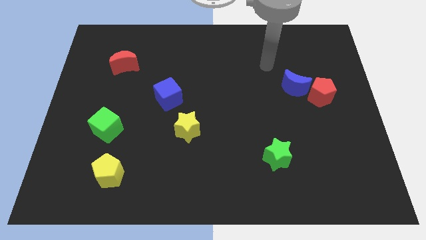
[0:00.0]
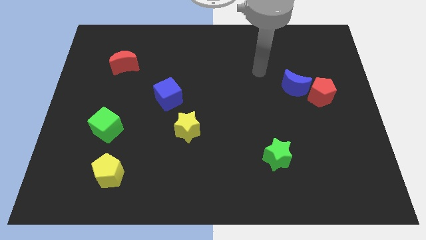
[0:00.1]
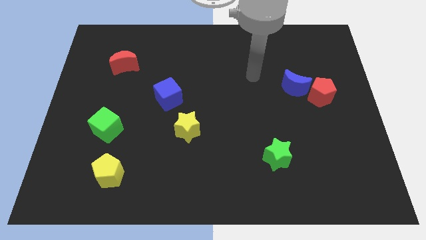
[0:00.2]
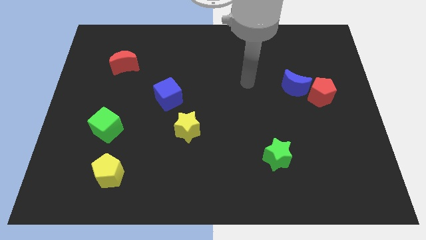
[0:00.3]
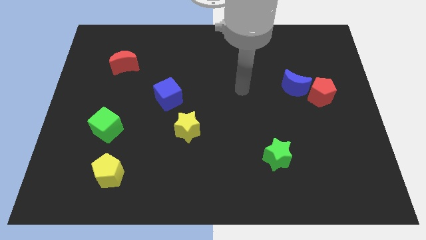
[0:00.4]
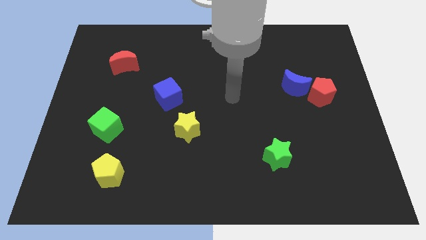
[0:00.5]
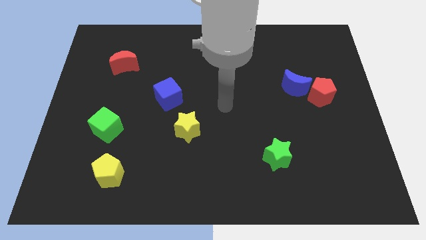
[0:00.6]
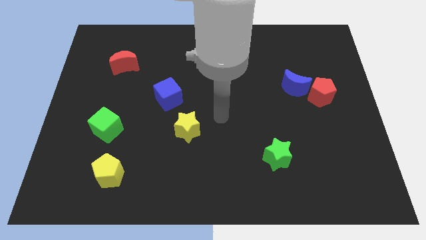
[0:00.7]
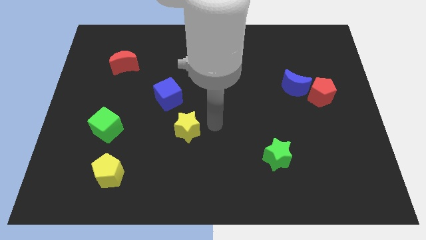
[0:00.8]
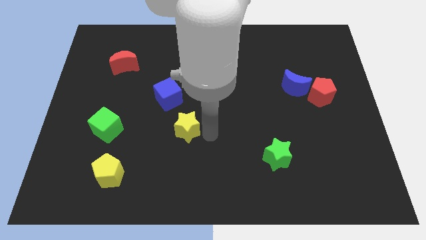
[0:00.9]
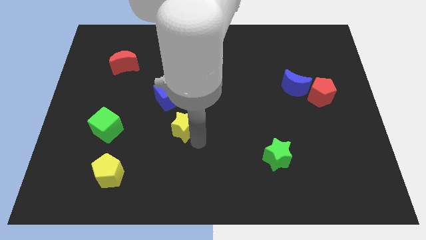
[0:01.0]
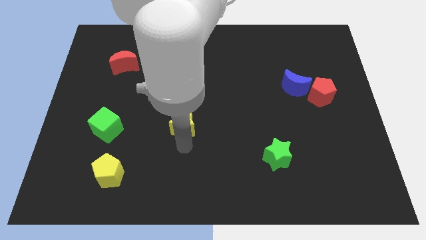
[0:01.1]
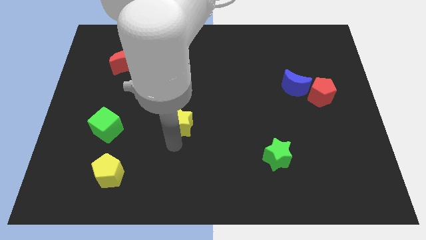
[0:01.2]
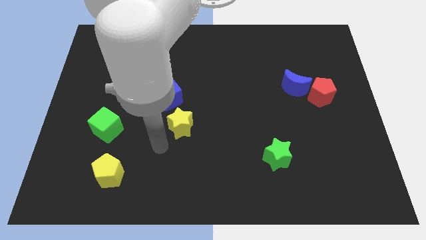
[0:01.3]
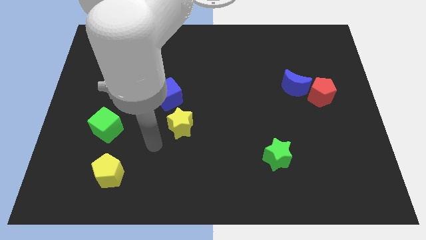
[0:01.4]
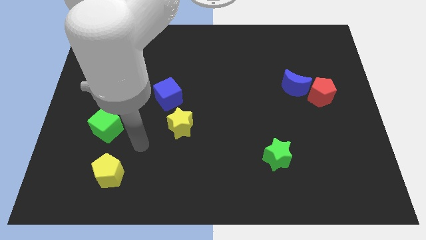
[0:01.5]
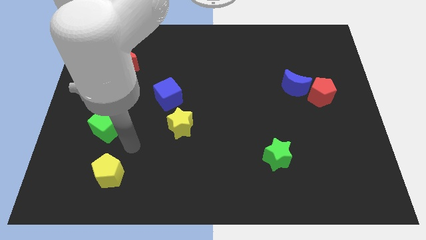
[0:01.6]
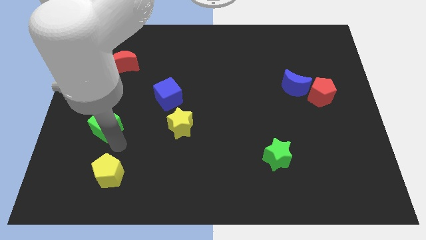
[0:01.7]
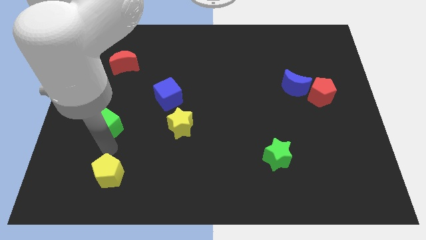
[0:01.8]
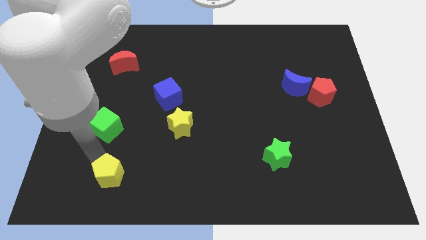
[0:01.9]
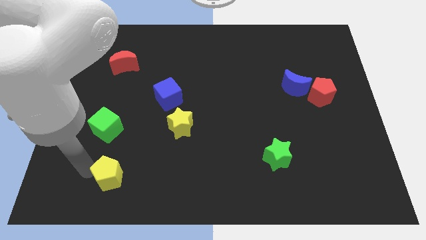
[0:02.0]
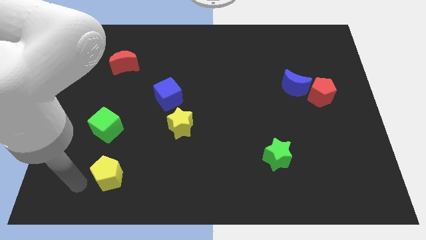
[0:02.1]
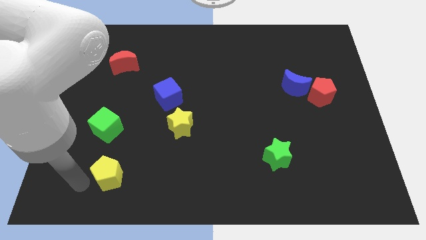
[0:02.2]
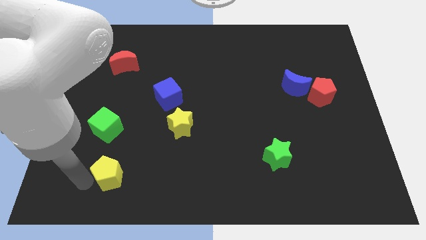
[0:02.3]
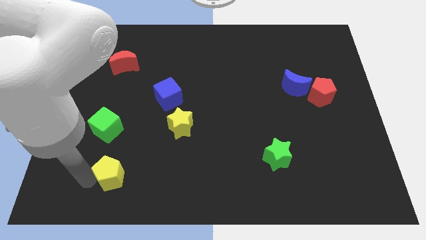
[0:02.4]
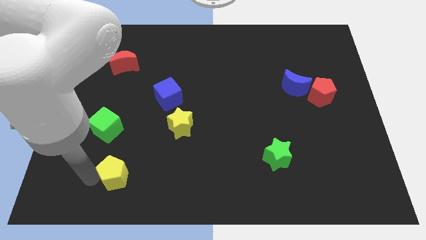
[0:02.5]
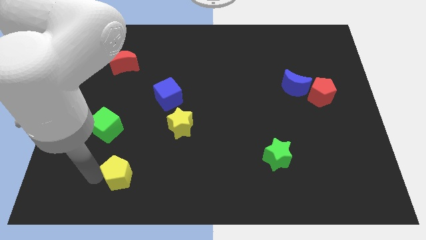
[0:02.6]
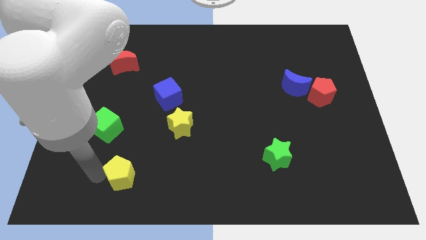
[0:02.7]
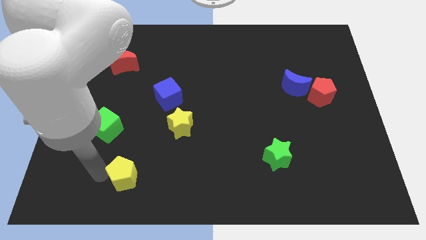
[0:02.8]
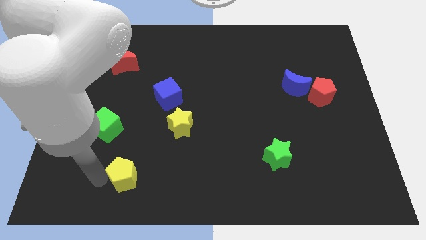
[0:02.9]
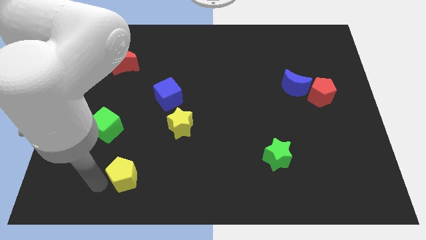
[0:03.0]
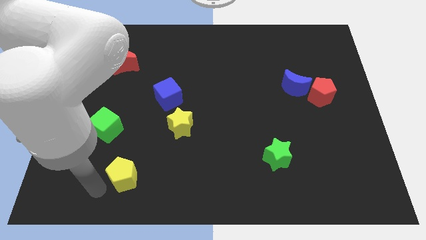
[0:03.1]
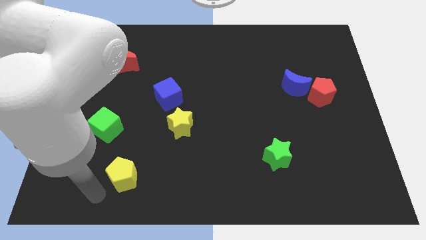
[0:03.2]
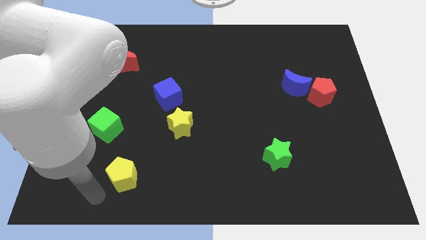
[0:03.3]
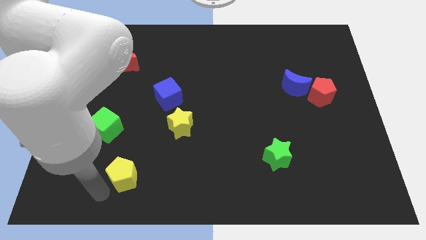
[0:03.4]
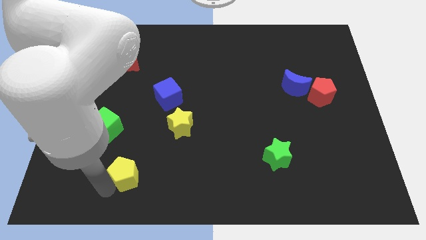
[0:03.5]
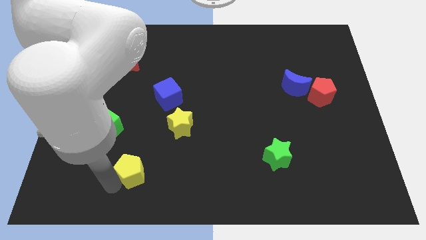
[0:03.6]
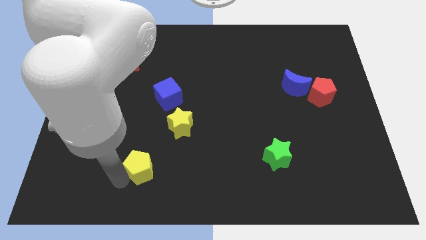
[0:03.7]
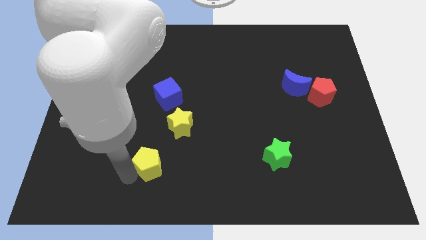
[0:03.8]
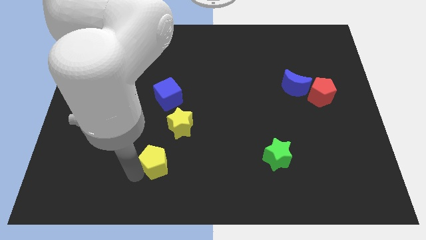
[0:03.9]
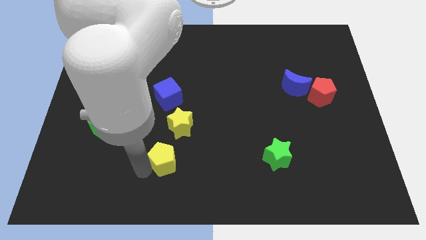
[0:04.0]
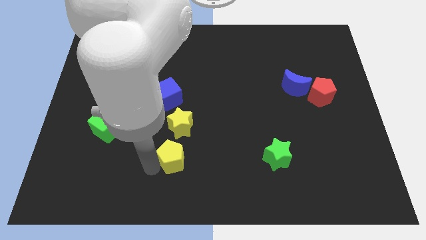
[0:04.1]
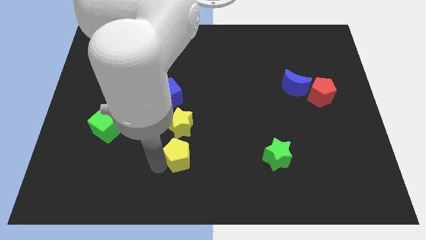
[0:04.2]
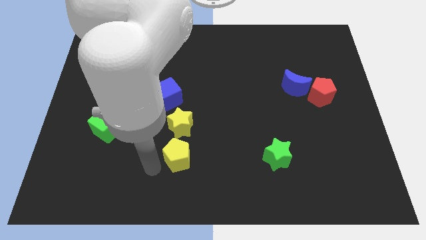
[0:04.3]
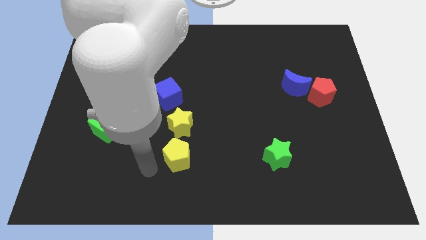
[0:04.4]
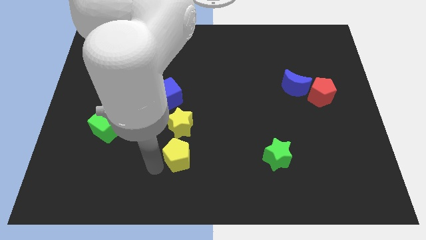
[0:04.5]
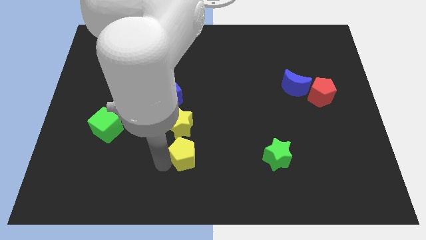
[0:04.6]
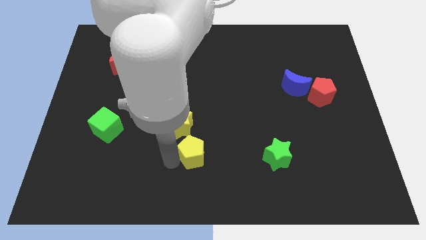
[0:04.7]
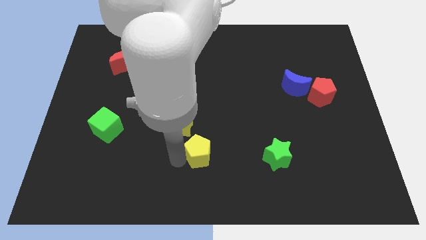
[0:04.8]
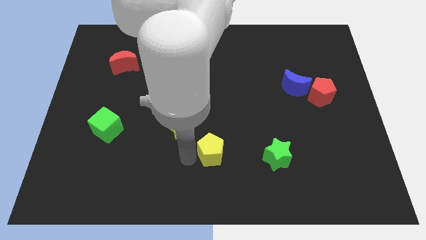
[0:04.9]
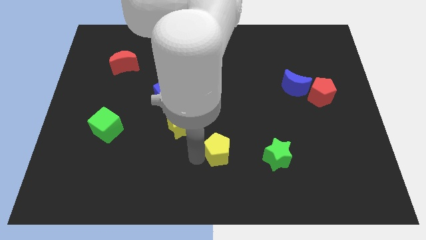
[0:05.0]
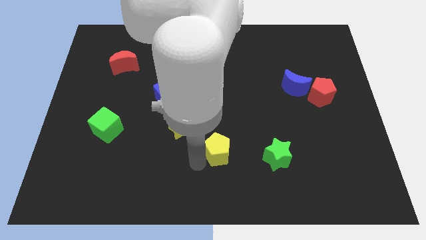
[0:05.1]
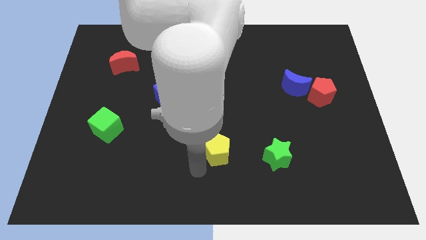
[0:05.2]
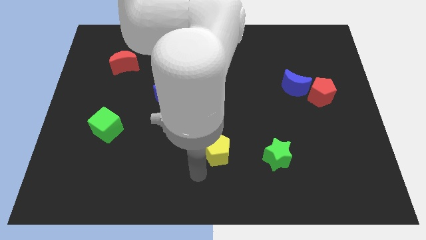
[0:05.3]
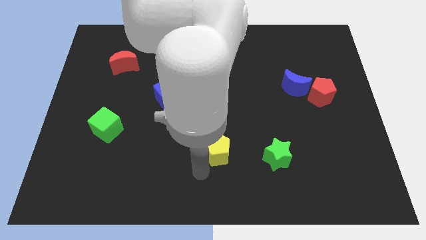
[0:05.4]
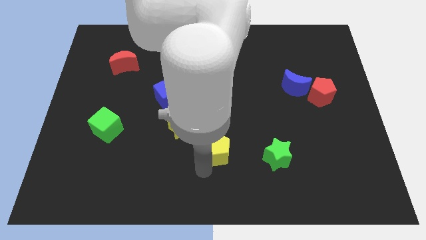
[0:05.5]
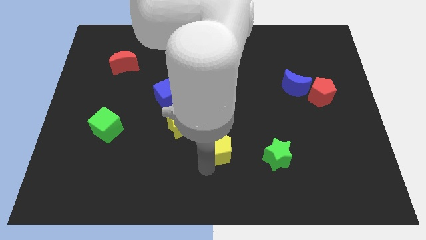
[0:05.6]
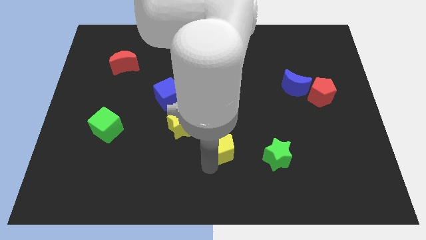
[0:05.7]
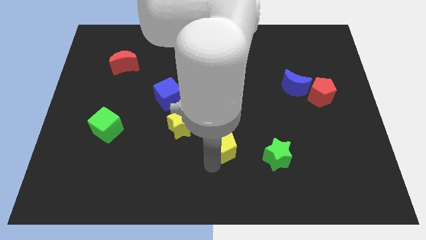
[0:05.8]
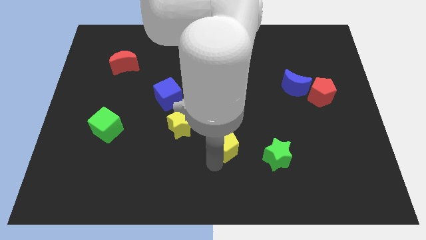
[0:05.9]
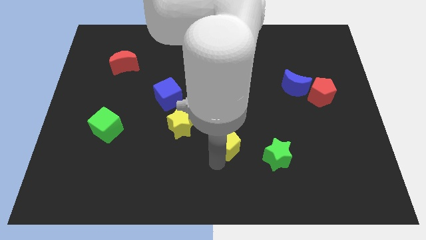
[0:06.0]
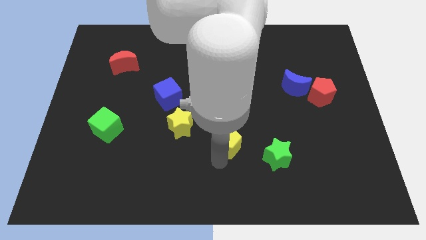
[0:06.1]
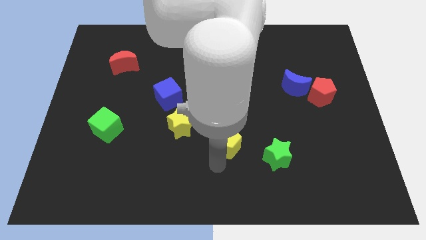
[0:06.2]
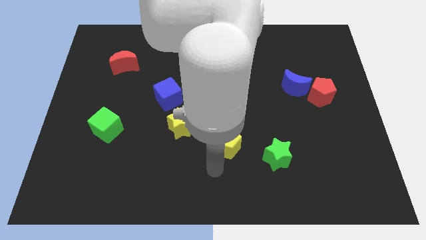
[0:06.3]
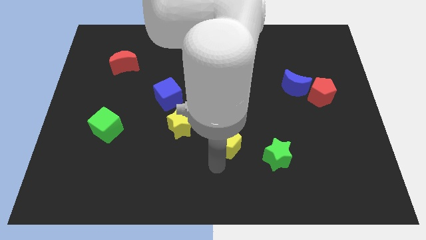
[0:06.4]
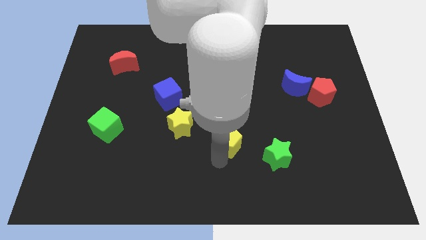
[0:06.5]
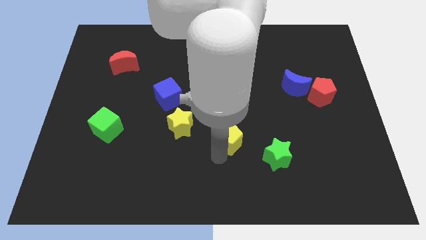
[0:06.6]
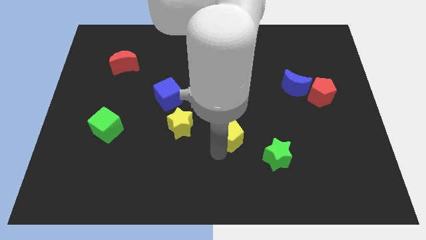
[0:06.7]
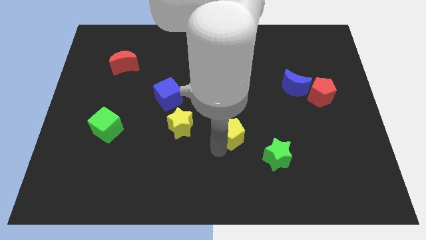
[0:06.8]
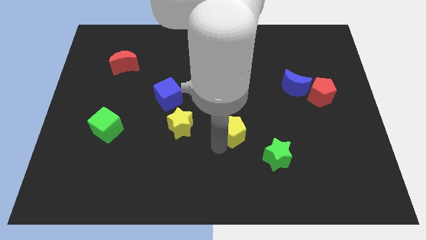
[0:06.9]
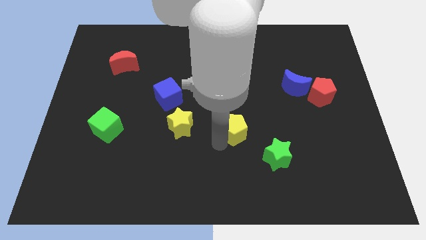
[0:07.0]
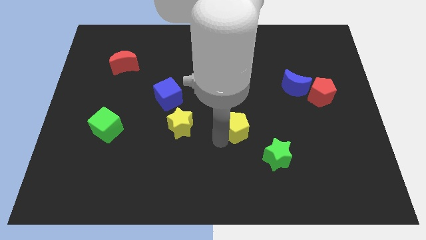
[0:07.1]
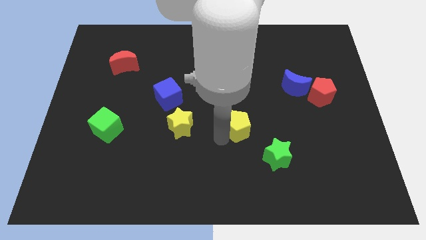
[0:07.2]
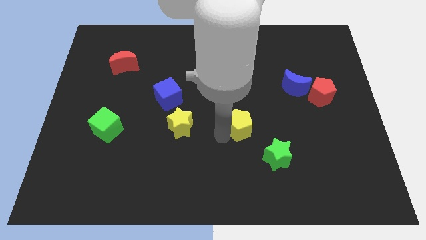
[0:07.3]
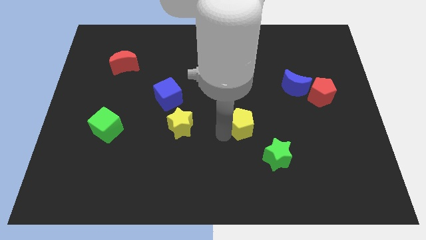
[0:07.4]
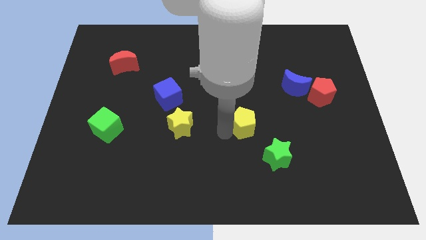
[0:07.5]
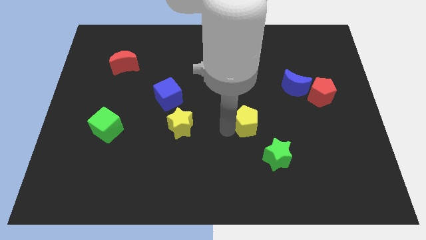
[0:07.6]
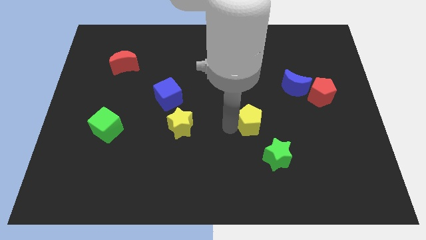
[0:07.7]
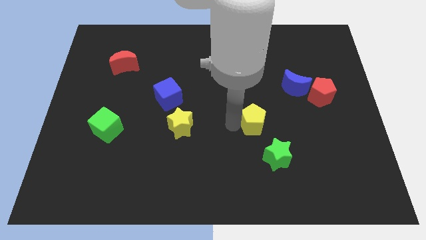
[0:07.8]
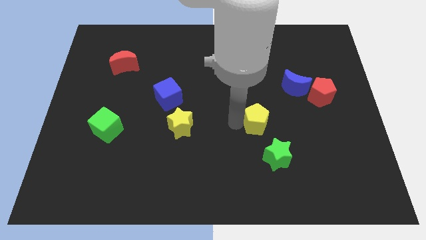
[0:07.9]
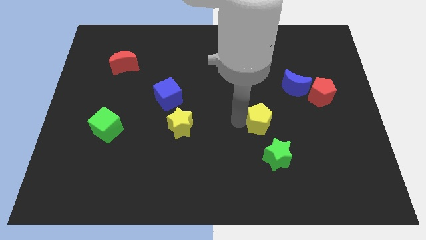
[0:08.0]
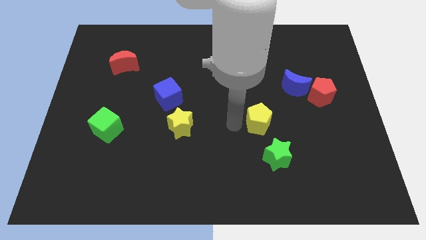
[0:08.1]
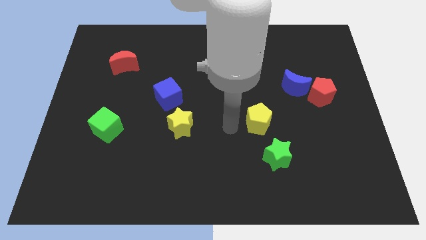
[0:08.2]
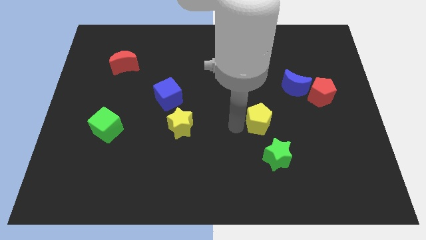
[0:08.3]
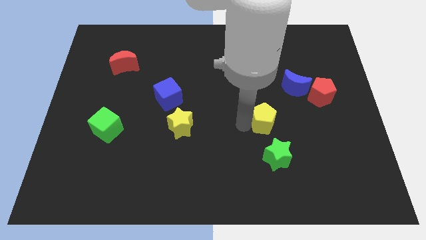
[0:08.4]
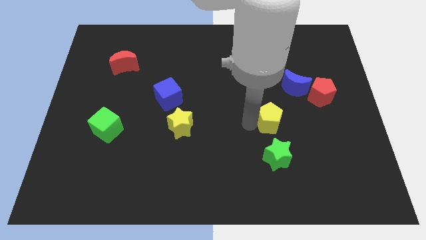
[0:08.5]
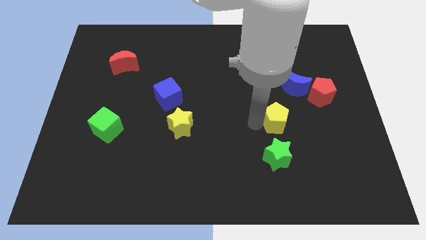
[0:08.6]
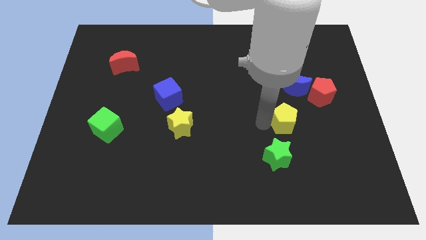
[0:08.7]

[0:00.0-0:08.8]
put the yellow pentagon to the bottom left side of the red pentagon
